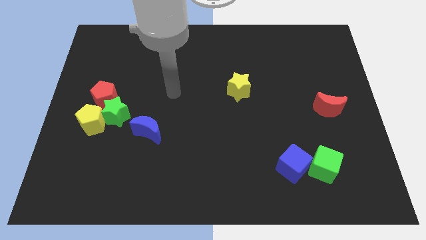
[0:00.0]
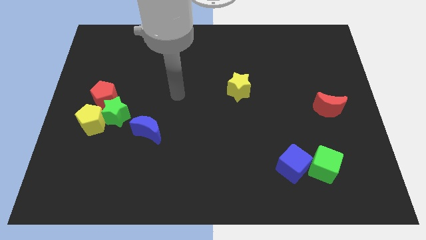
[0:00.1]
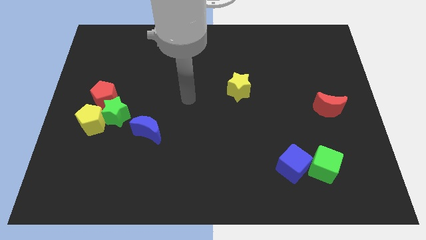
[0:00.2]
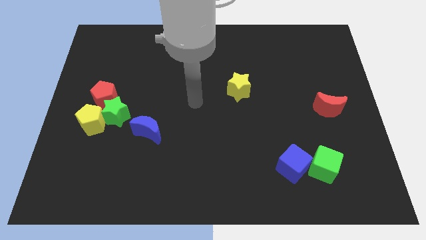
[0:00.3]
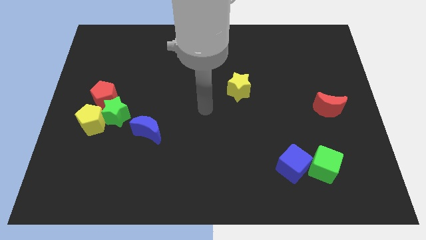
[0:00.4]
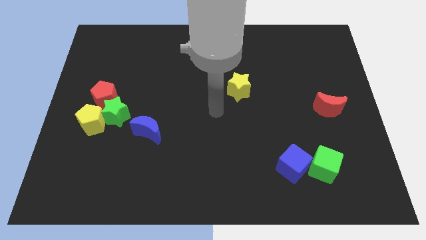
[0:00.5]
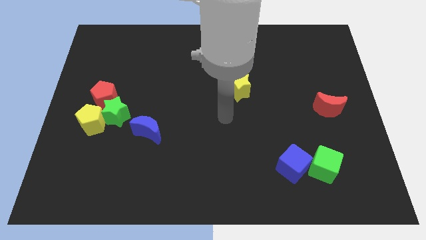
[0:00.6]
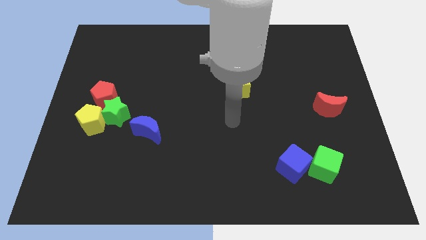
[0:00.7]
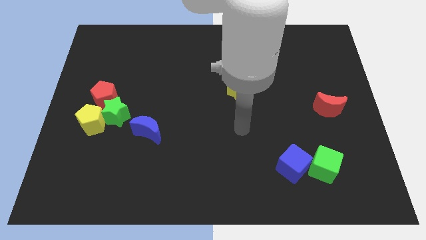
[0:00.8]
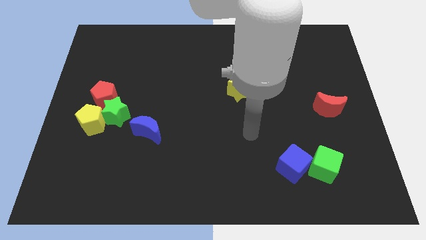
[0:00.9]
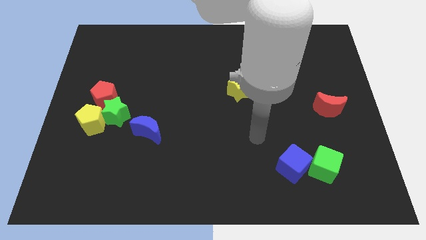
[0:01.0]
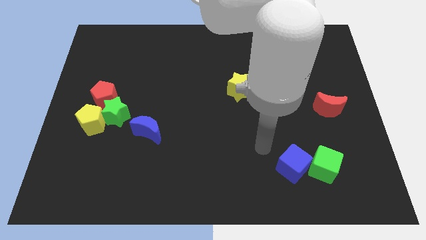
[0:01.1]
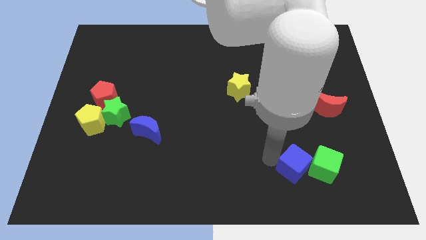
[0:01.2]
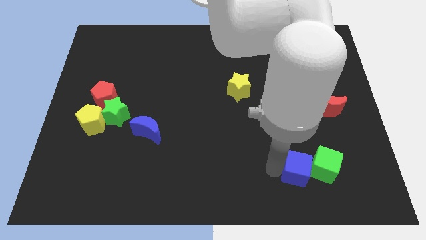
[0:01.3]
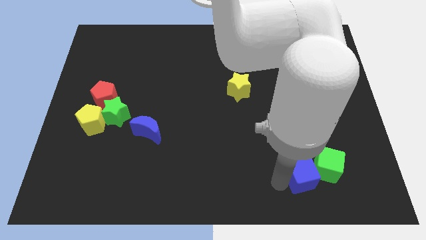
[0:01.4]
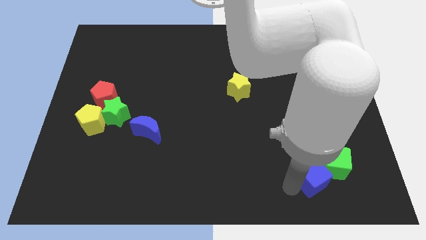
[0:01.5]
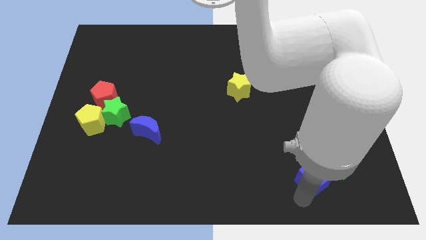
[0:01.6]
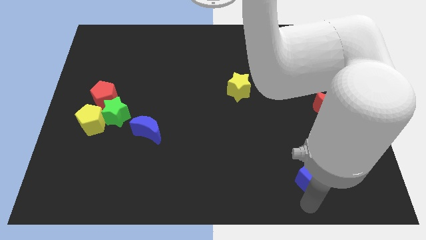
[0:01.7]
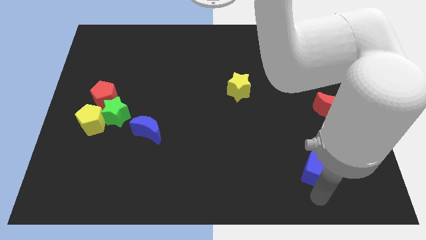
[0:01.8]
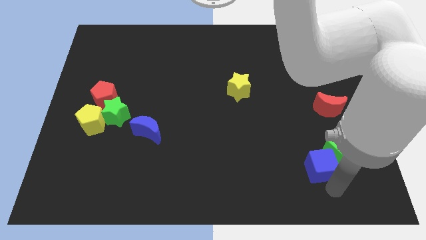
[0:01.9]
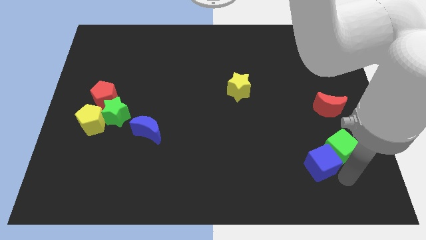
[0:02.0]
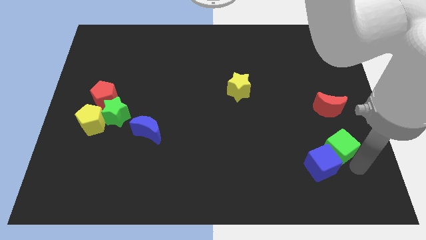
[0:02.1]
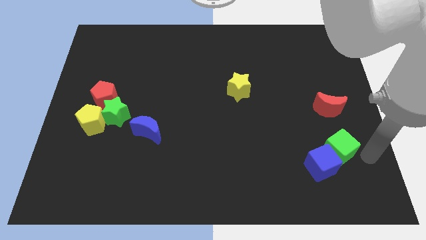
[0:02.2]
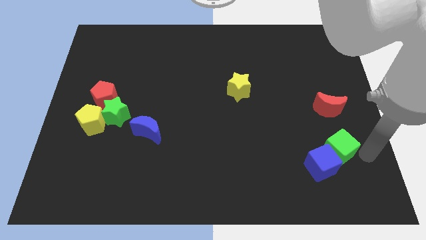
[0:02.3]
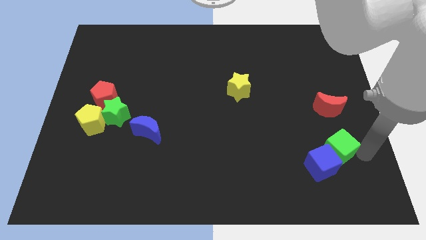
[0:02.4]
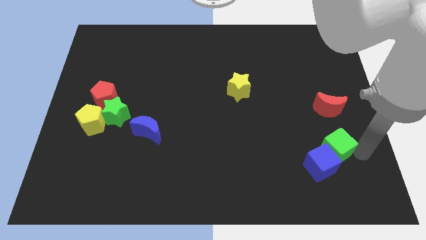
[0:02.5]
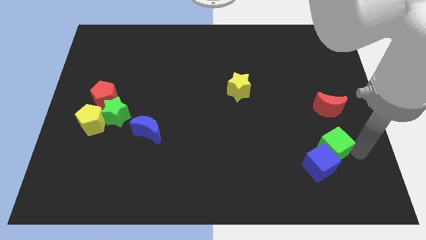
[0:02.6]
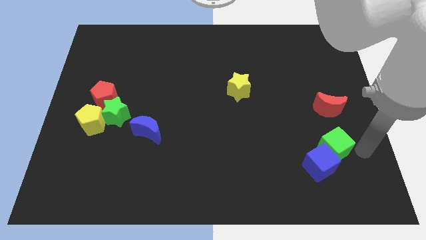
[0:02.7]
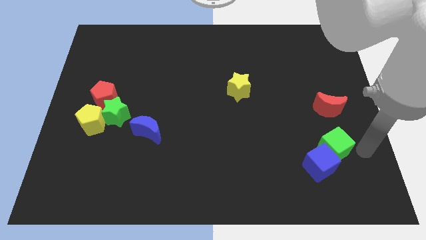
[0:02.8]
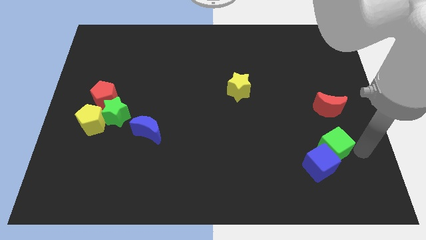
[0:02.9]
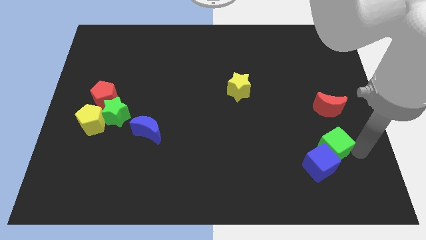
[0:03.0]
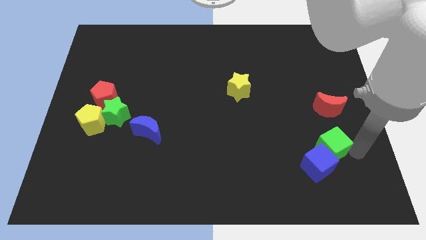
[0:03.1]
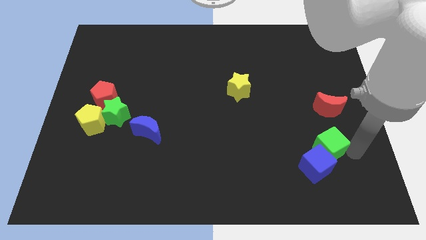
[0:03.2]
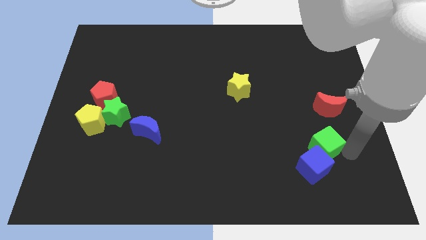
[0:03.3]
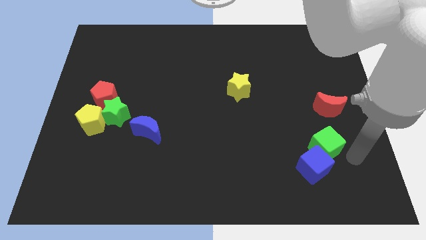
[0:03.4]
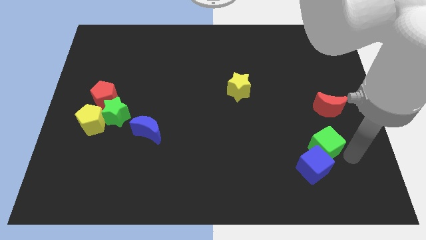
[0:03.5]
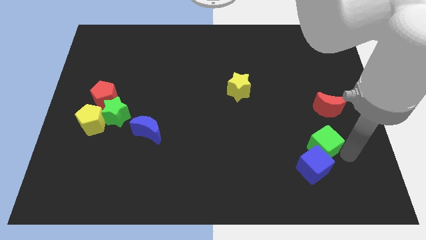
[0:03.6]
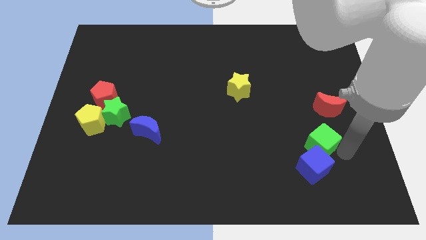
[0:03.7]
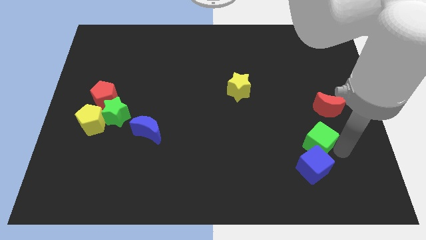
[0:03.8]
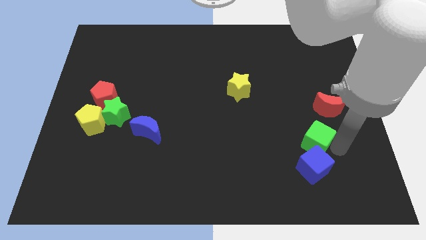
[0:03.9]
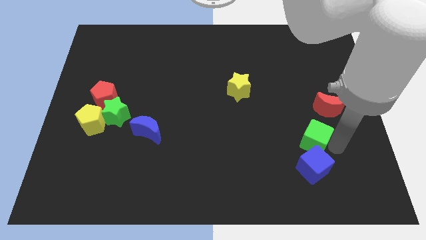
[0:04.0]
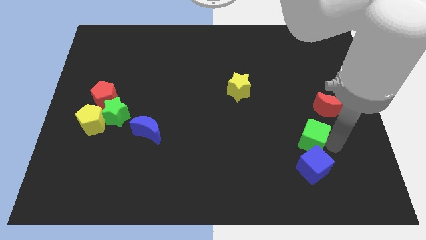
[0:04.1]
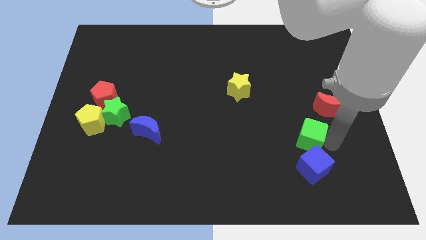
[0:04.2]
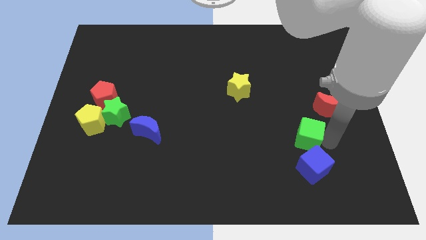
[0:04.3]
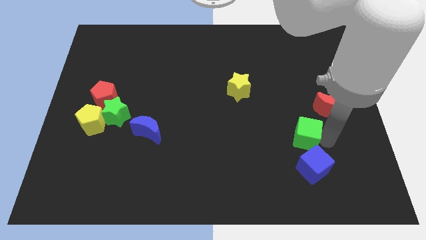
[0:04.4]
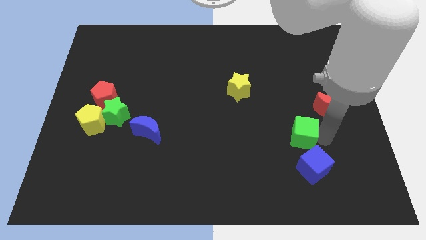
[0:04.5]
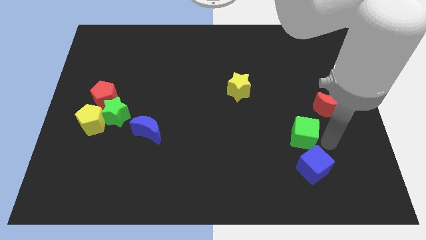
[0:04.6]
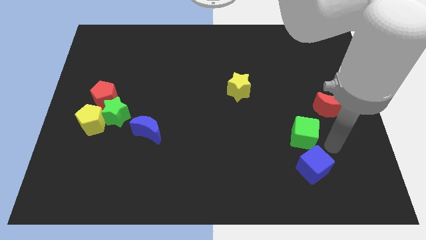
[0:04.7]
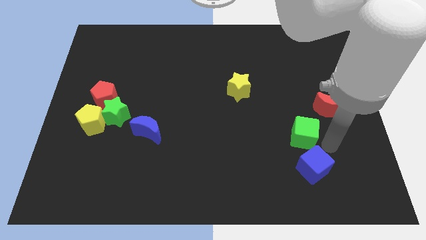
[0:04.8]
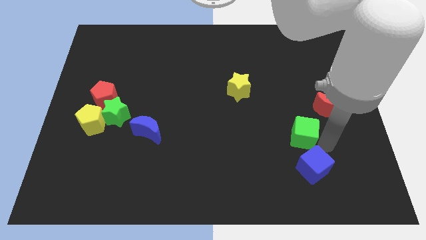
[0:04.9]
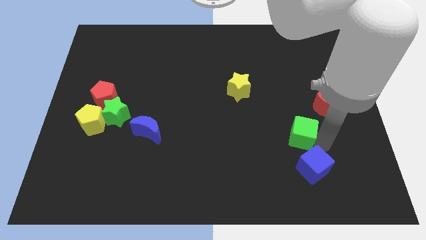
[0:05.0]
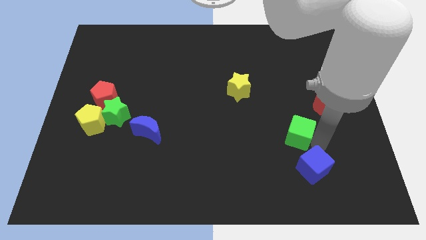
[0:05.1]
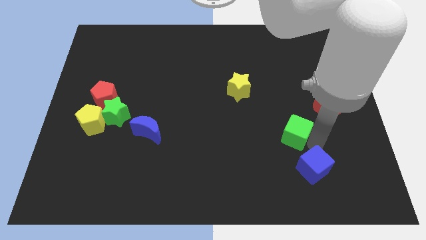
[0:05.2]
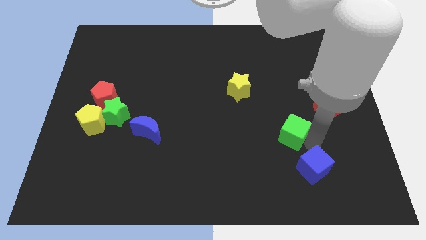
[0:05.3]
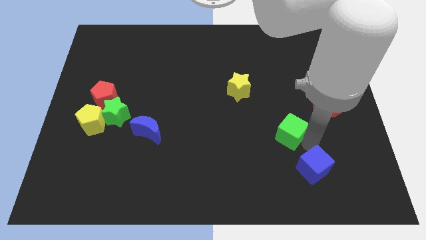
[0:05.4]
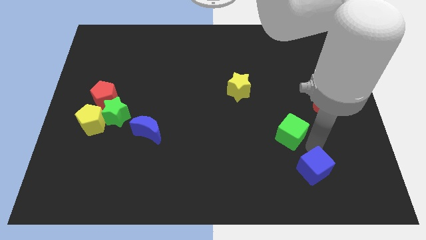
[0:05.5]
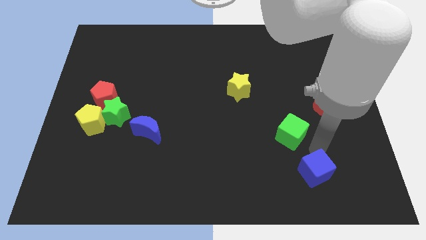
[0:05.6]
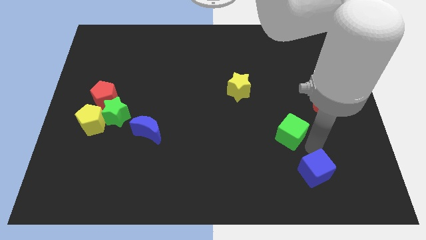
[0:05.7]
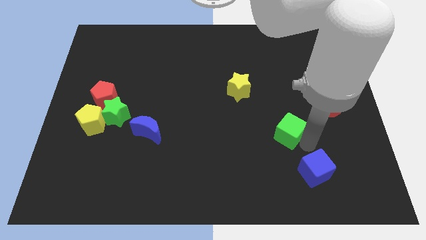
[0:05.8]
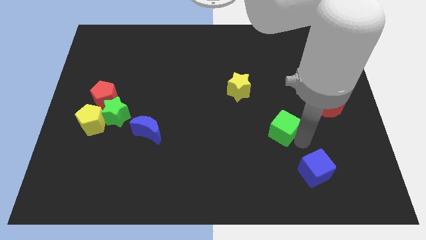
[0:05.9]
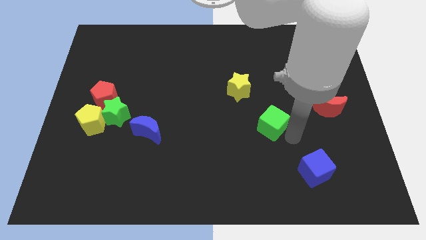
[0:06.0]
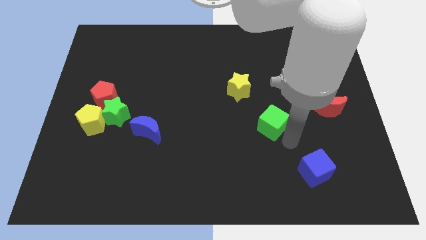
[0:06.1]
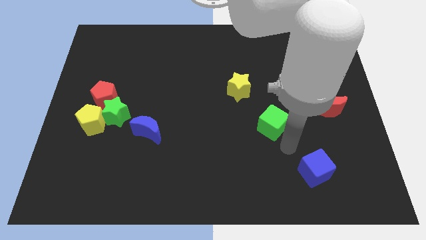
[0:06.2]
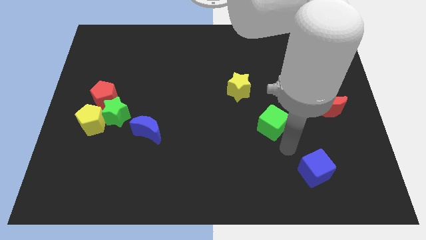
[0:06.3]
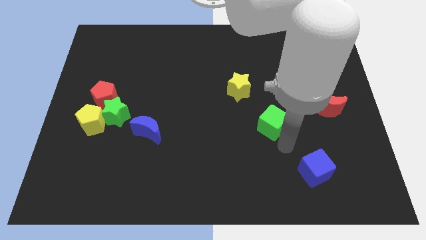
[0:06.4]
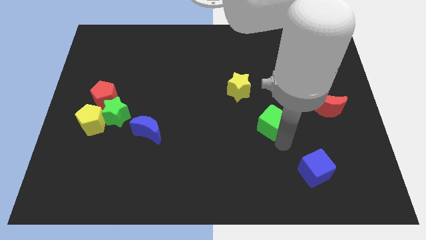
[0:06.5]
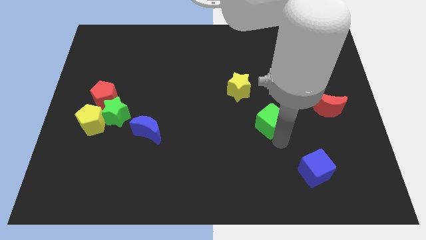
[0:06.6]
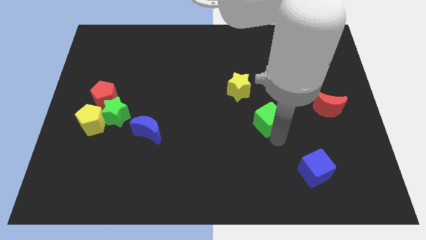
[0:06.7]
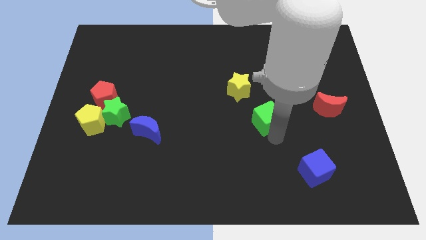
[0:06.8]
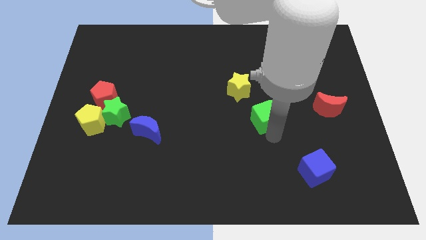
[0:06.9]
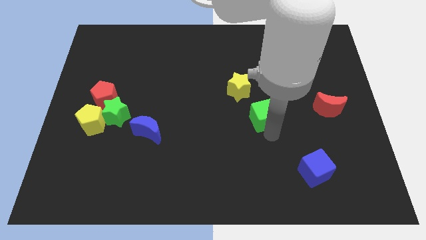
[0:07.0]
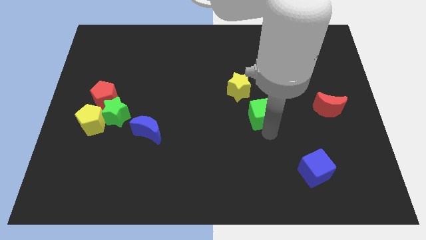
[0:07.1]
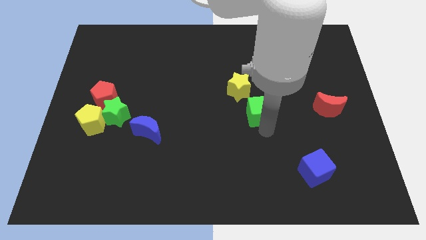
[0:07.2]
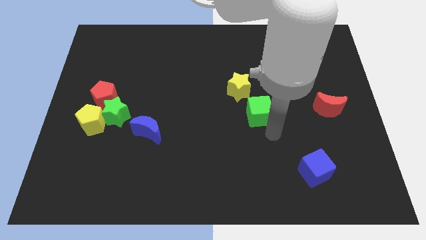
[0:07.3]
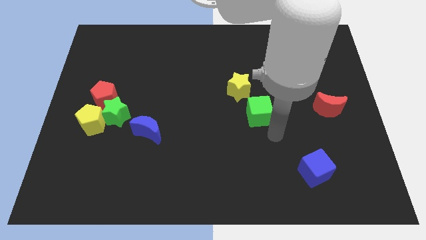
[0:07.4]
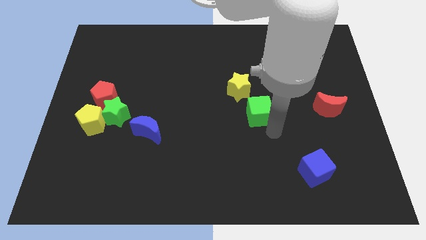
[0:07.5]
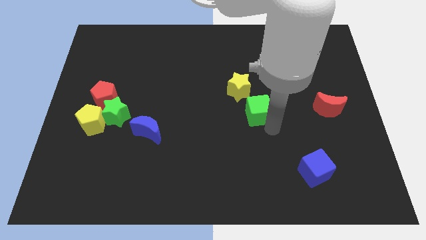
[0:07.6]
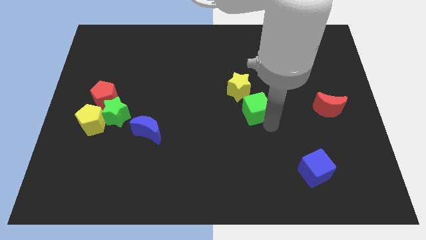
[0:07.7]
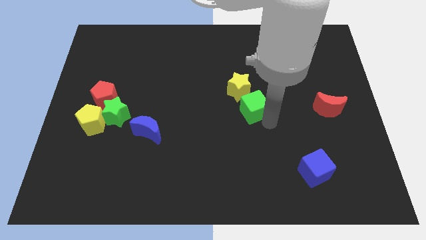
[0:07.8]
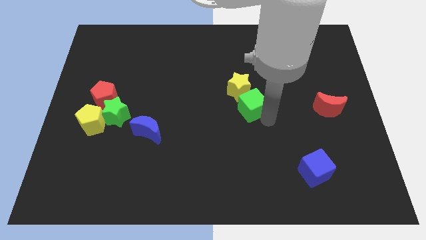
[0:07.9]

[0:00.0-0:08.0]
put the green cube next to the yellow star
